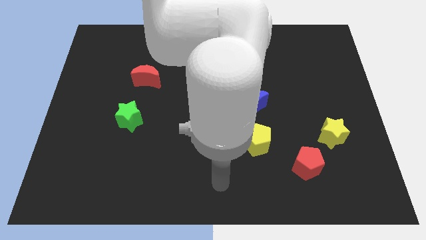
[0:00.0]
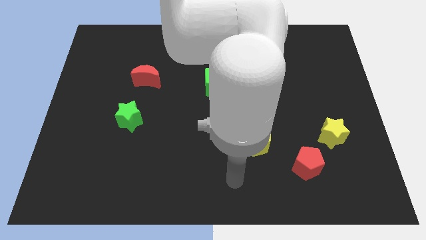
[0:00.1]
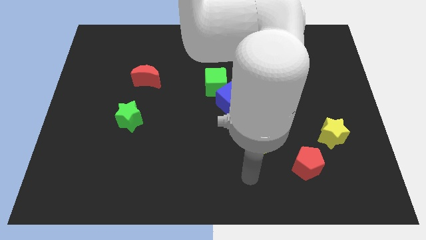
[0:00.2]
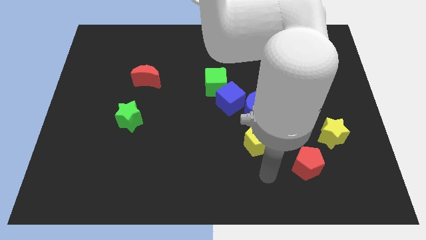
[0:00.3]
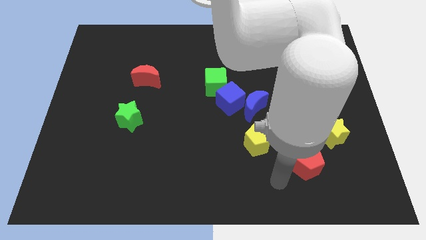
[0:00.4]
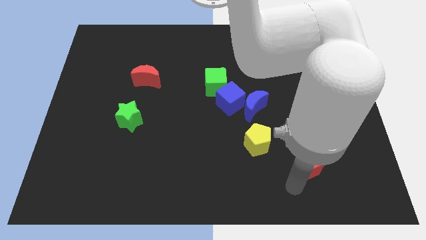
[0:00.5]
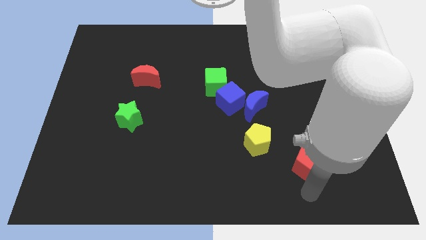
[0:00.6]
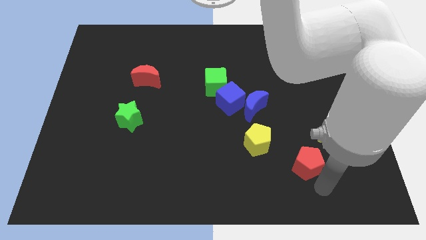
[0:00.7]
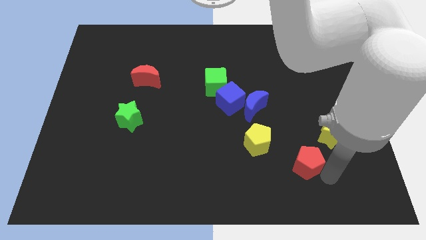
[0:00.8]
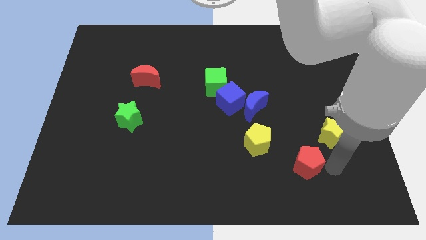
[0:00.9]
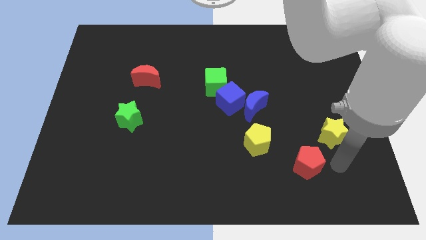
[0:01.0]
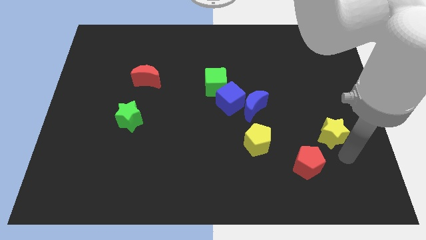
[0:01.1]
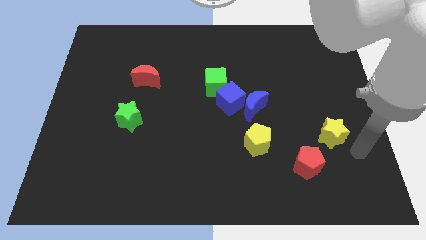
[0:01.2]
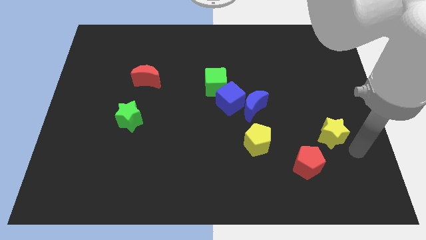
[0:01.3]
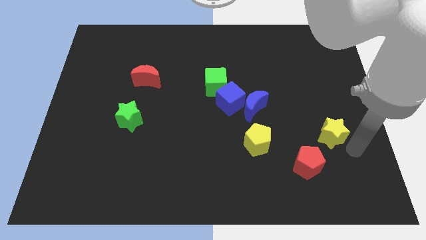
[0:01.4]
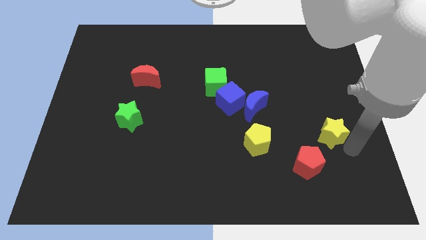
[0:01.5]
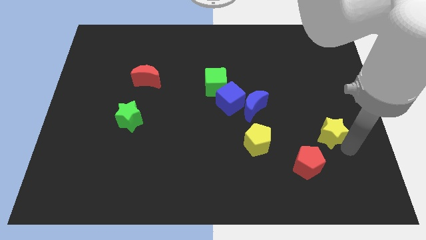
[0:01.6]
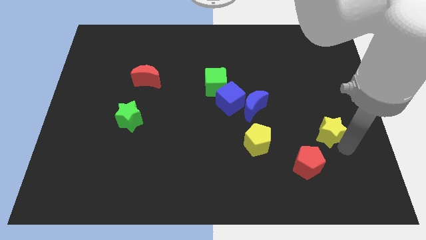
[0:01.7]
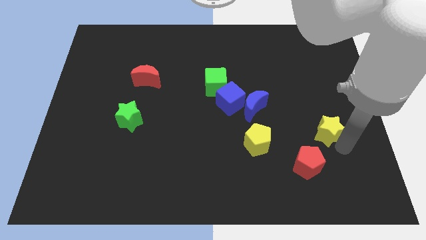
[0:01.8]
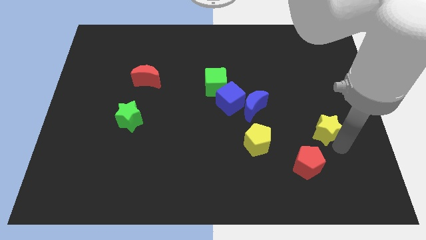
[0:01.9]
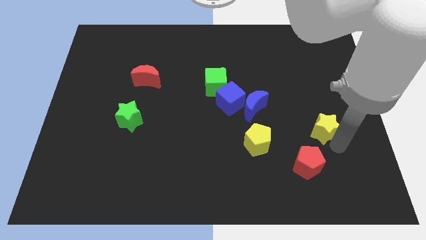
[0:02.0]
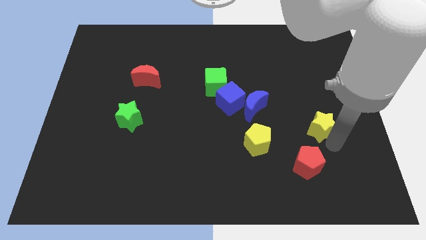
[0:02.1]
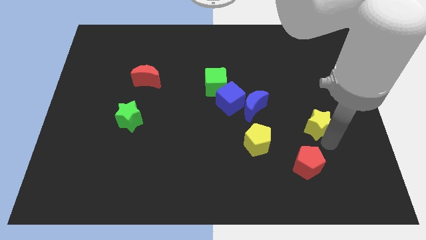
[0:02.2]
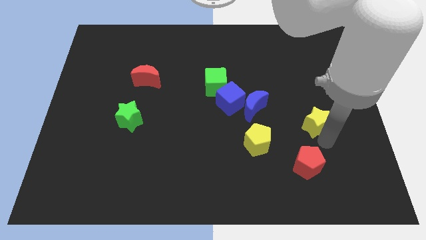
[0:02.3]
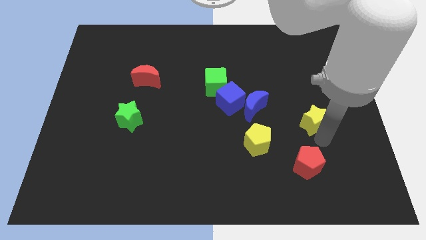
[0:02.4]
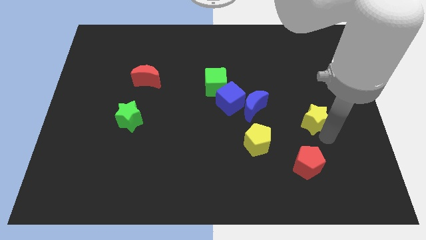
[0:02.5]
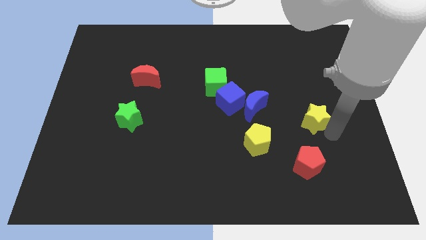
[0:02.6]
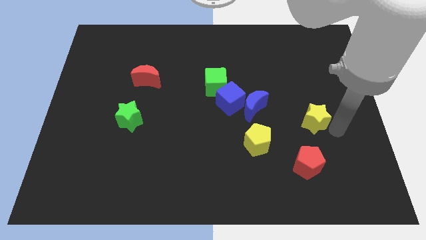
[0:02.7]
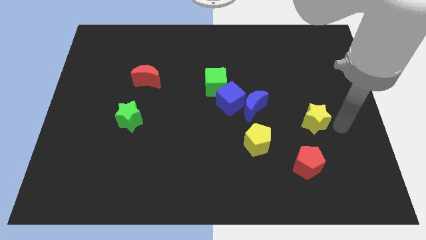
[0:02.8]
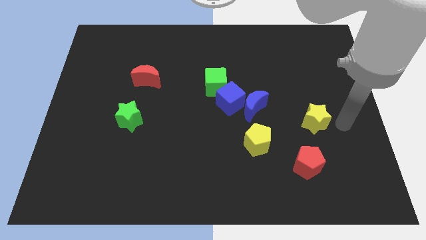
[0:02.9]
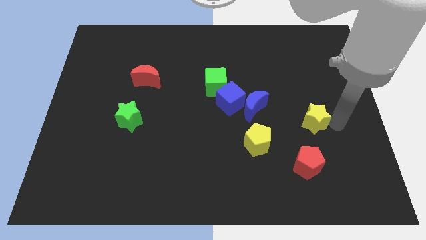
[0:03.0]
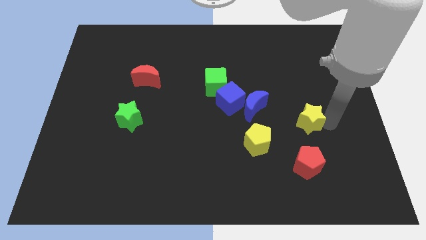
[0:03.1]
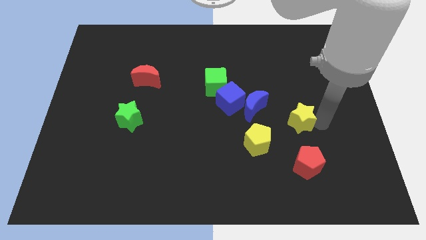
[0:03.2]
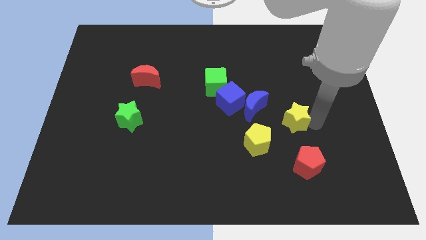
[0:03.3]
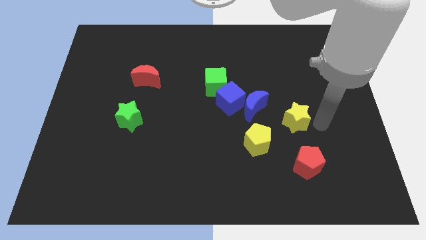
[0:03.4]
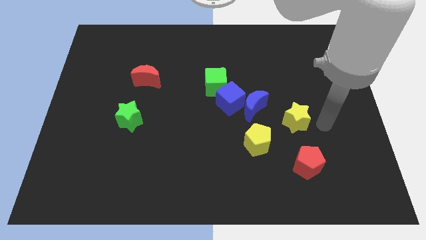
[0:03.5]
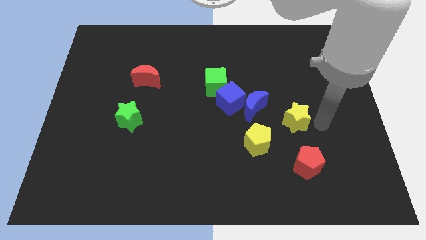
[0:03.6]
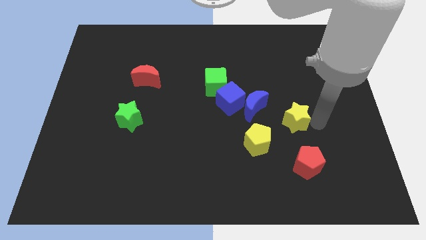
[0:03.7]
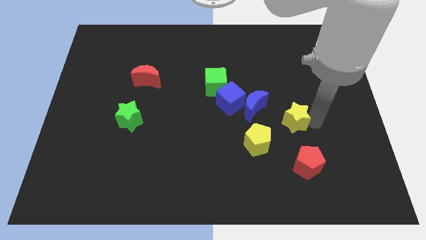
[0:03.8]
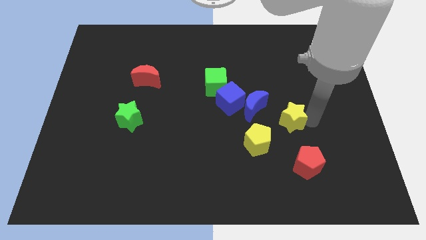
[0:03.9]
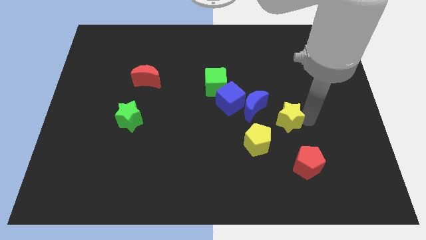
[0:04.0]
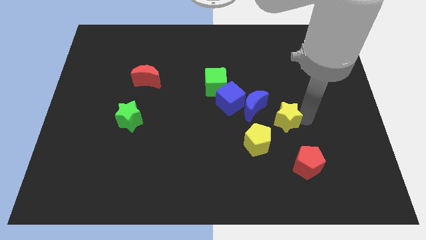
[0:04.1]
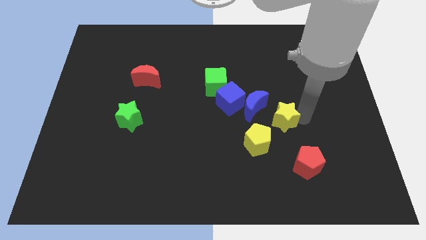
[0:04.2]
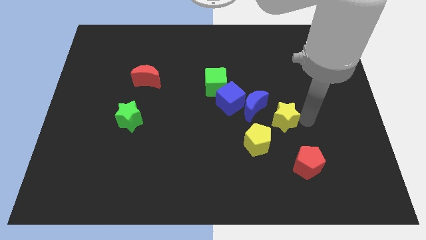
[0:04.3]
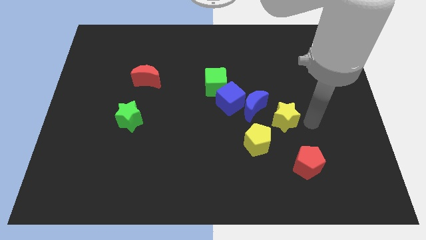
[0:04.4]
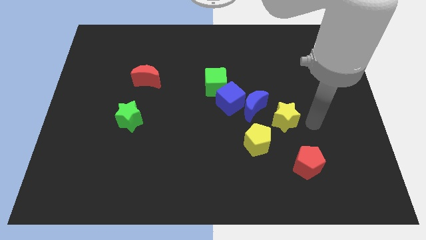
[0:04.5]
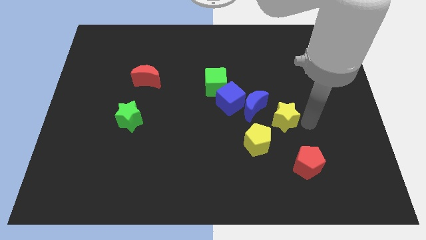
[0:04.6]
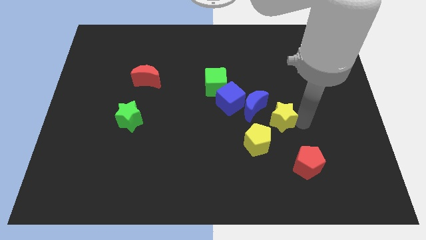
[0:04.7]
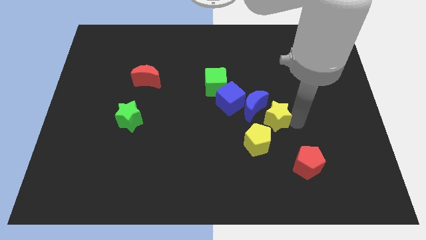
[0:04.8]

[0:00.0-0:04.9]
slide the yellow star to the bottom right side of the blue cube

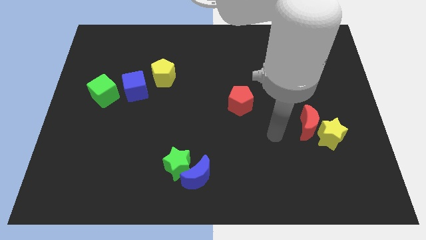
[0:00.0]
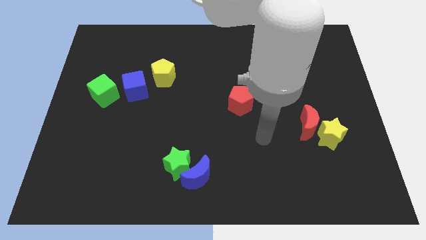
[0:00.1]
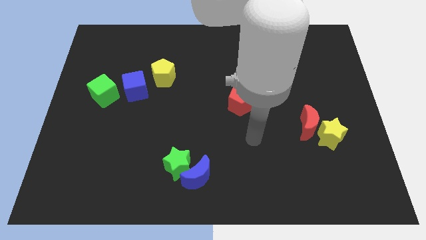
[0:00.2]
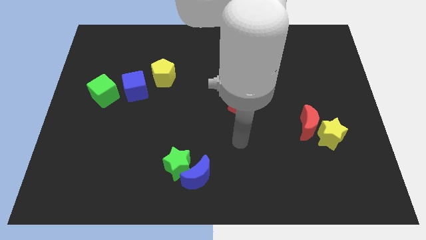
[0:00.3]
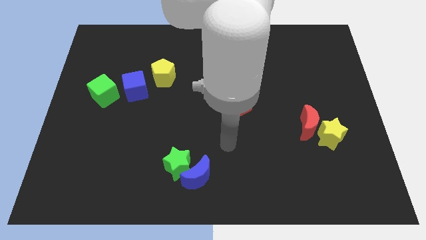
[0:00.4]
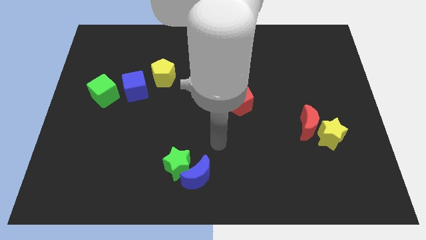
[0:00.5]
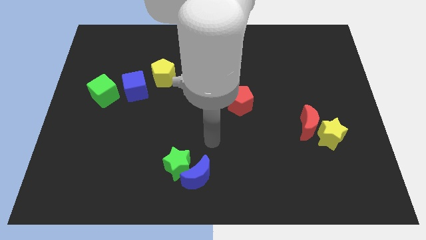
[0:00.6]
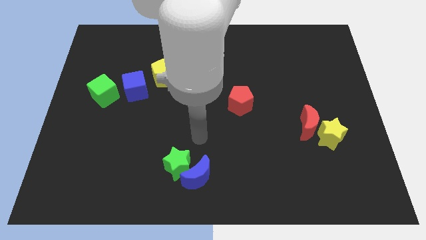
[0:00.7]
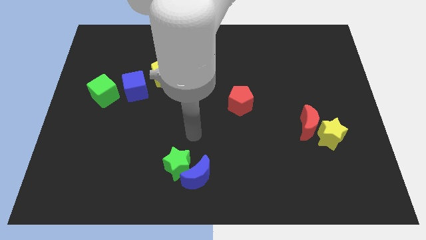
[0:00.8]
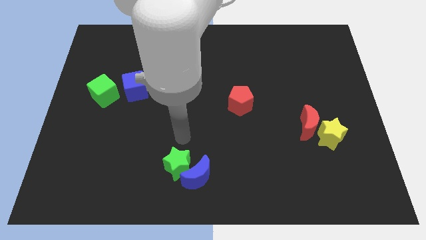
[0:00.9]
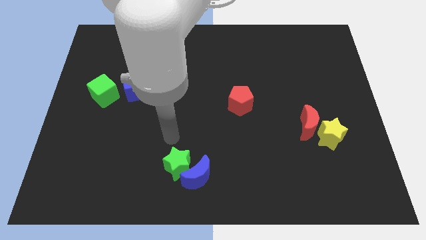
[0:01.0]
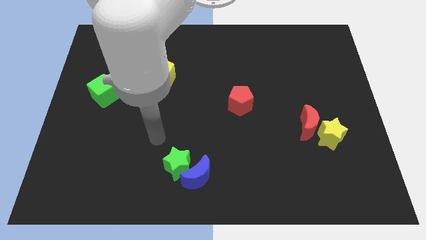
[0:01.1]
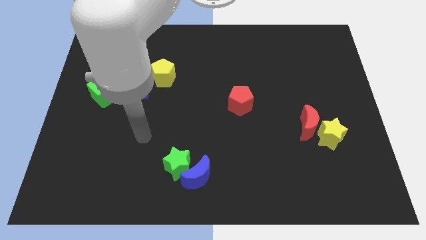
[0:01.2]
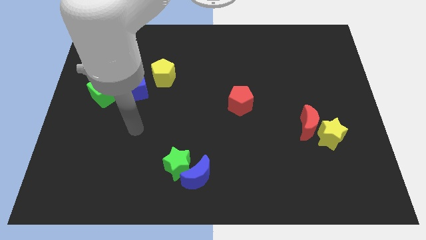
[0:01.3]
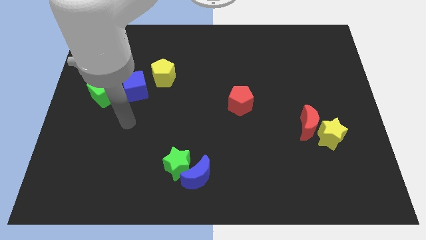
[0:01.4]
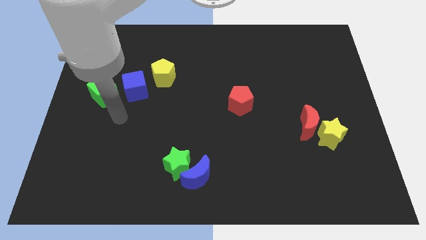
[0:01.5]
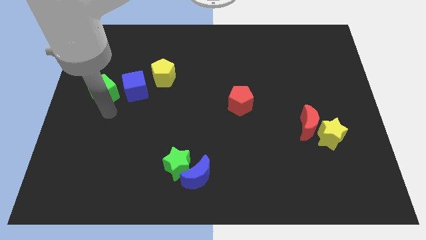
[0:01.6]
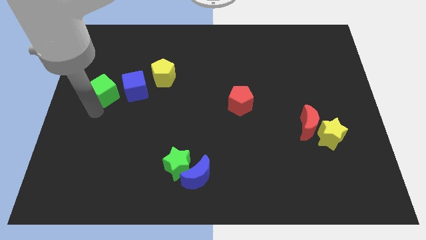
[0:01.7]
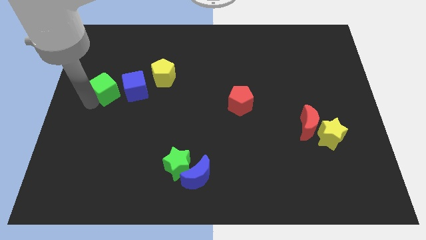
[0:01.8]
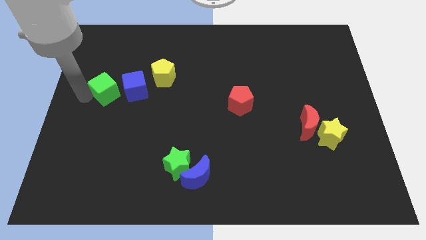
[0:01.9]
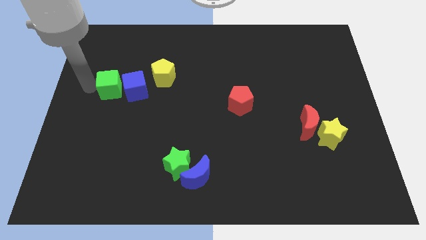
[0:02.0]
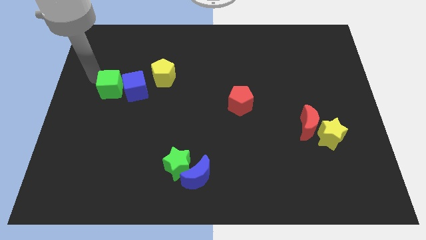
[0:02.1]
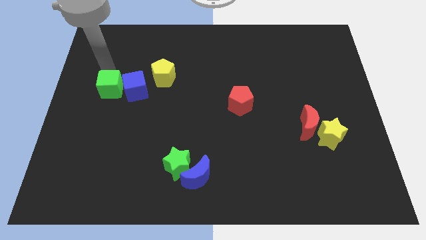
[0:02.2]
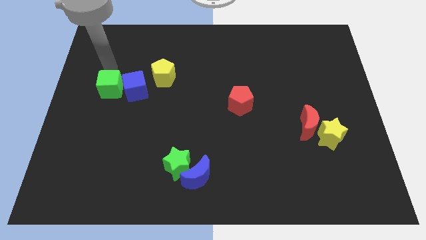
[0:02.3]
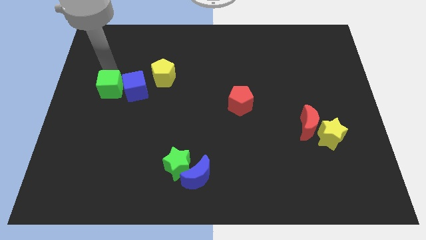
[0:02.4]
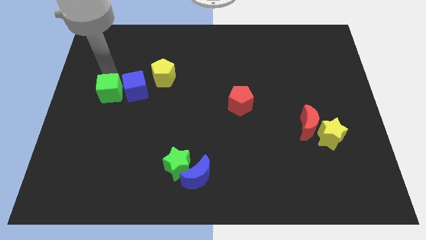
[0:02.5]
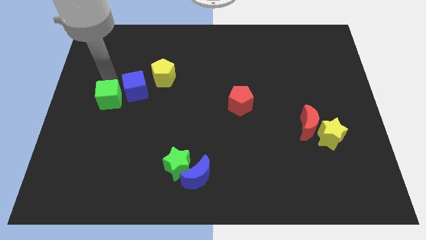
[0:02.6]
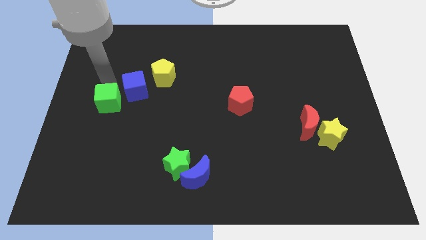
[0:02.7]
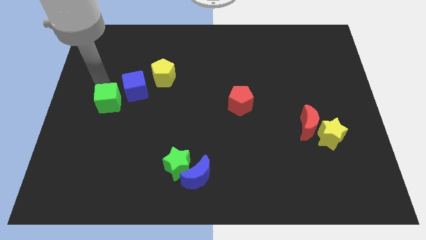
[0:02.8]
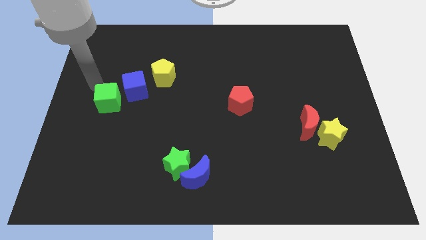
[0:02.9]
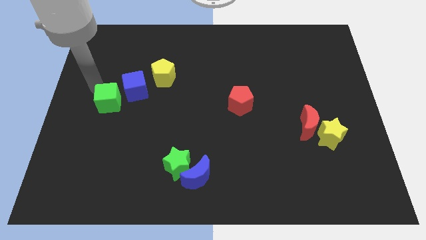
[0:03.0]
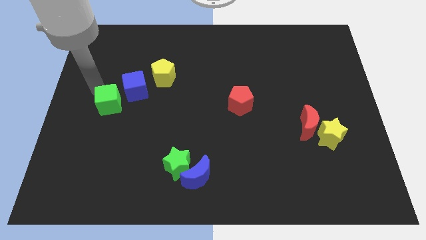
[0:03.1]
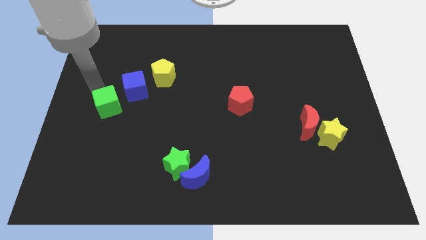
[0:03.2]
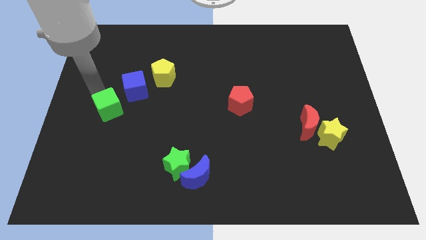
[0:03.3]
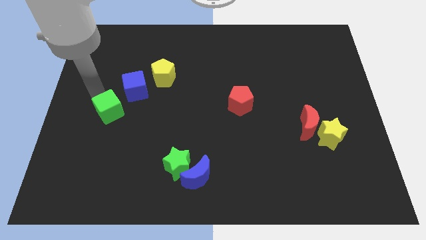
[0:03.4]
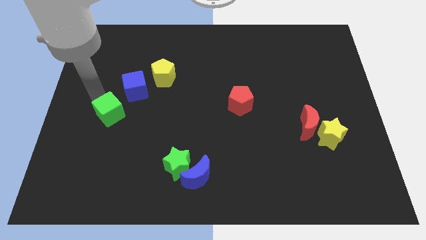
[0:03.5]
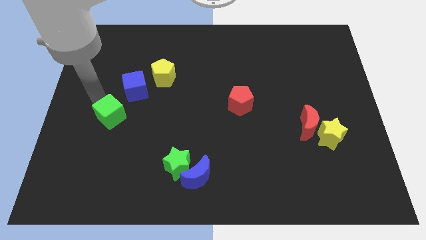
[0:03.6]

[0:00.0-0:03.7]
move the green cube below the blue cube
